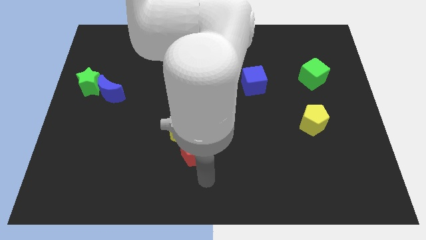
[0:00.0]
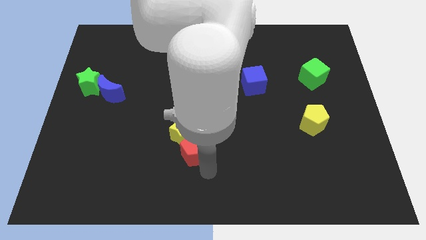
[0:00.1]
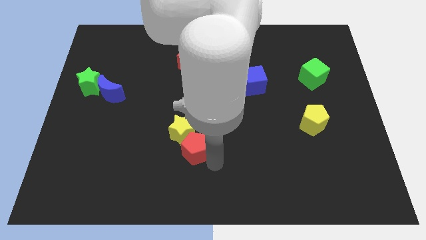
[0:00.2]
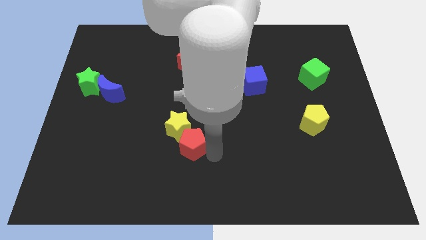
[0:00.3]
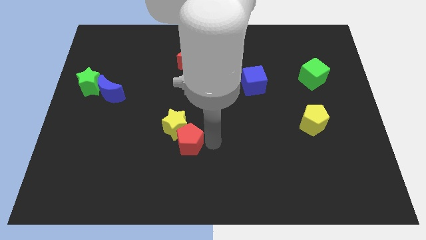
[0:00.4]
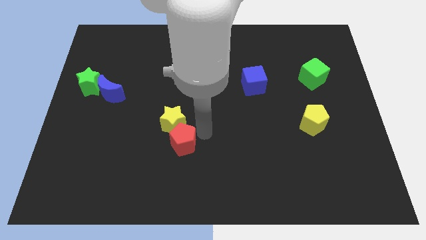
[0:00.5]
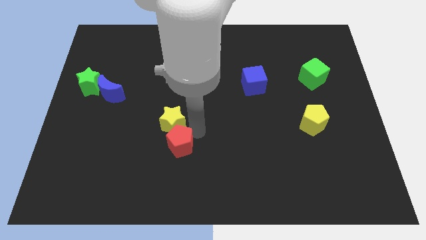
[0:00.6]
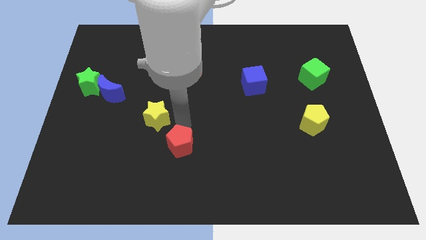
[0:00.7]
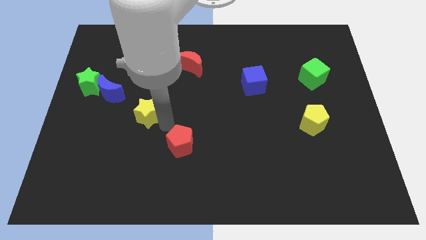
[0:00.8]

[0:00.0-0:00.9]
move the red pentagon away from the yellow star

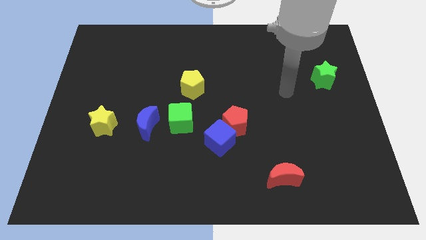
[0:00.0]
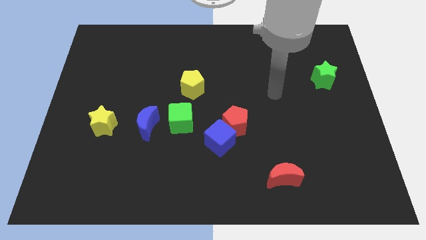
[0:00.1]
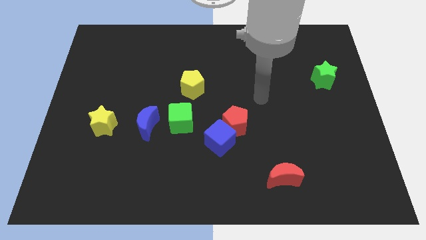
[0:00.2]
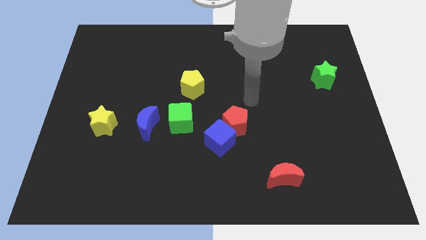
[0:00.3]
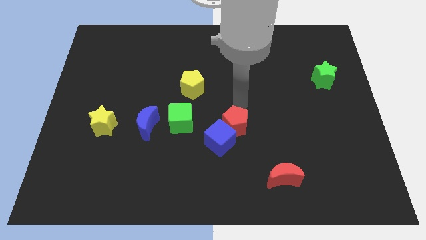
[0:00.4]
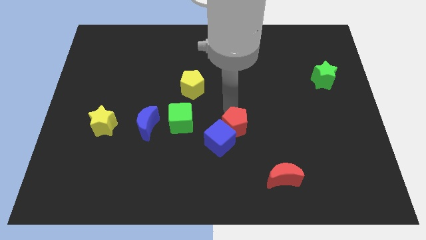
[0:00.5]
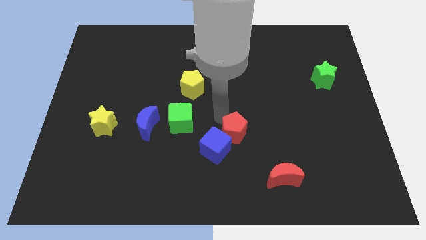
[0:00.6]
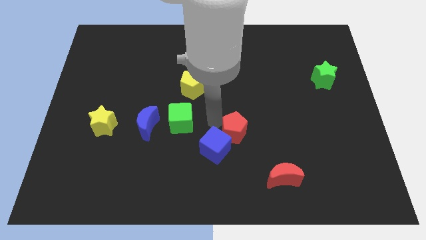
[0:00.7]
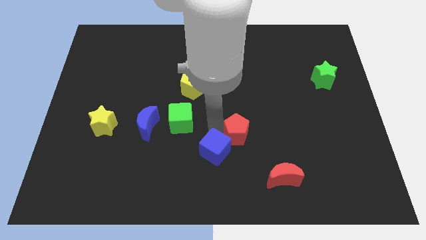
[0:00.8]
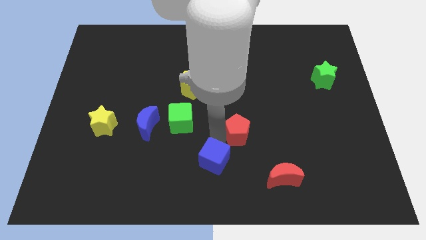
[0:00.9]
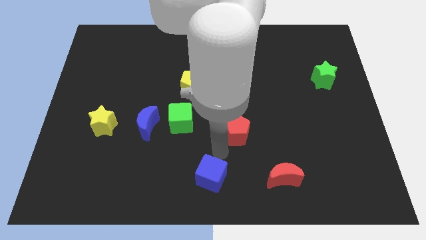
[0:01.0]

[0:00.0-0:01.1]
pull the red pentagon apart from the blue cube

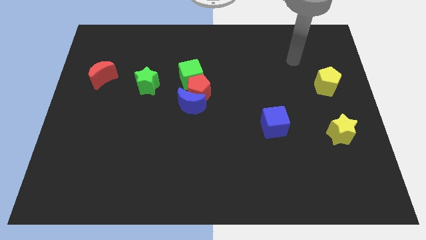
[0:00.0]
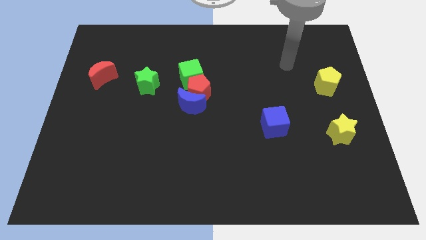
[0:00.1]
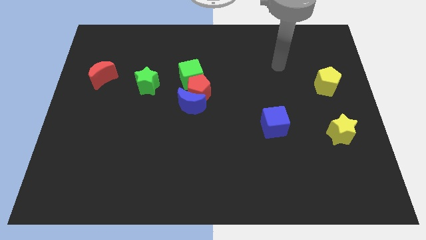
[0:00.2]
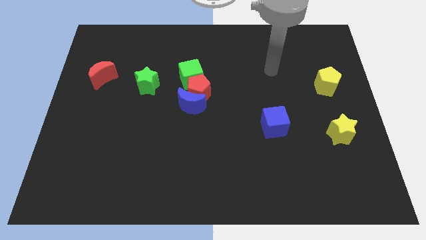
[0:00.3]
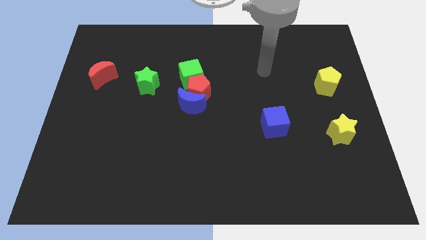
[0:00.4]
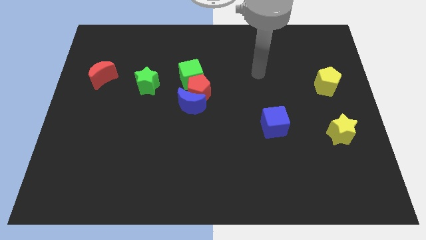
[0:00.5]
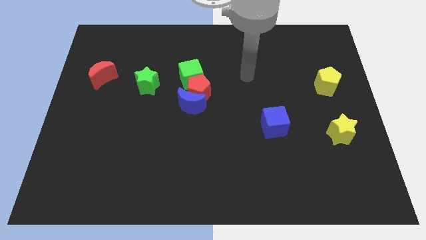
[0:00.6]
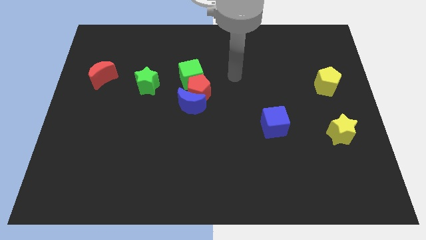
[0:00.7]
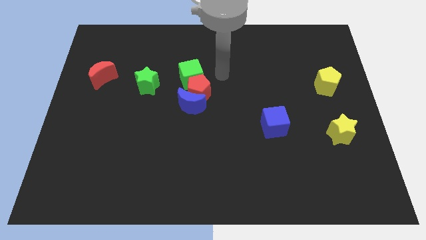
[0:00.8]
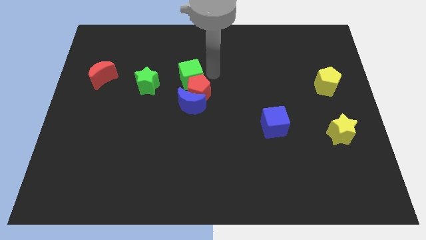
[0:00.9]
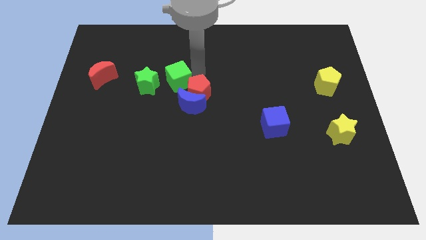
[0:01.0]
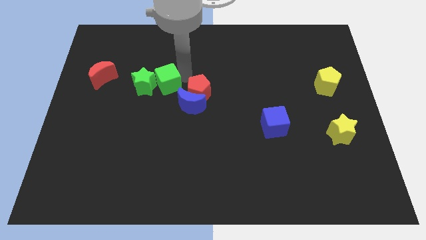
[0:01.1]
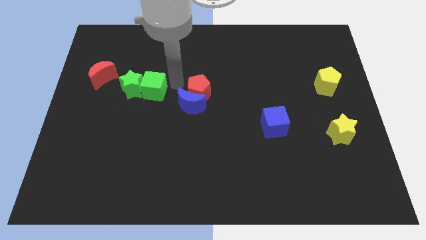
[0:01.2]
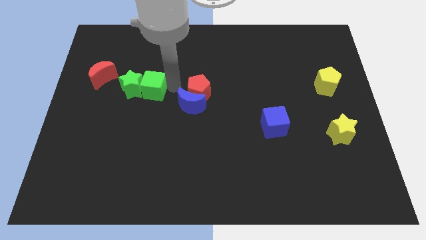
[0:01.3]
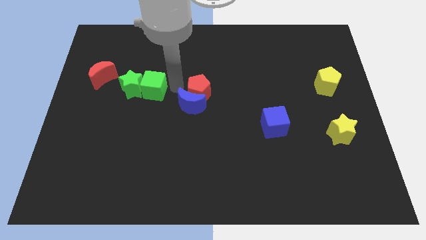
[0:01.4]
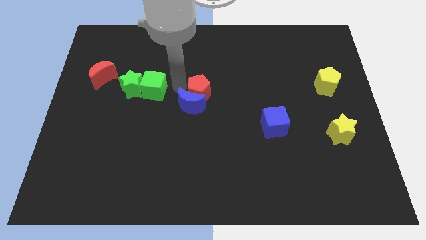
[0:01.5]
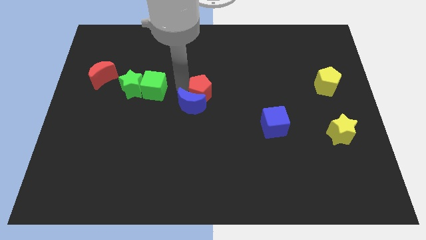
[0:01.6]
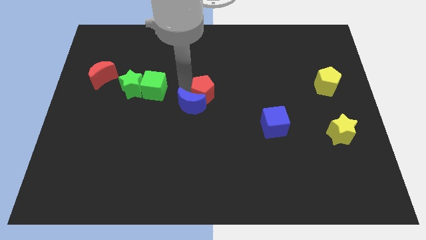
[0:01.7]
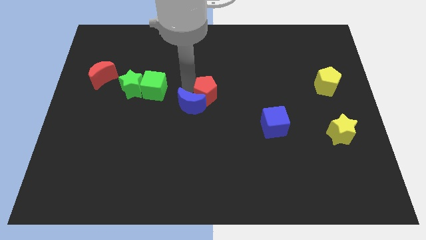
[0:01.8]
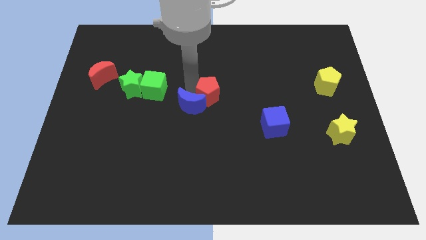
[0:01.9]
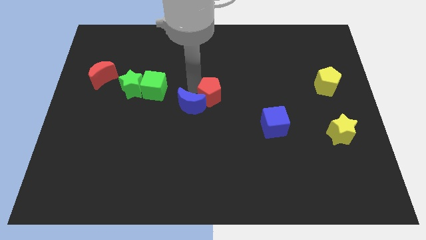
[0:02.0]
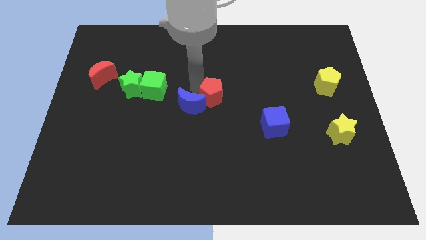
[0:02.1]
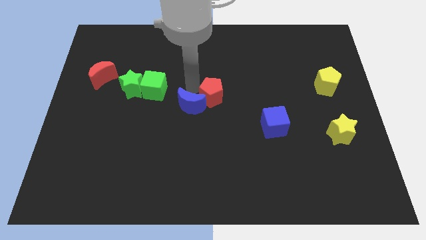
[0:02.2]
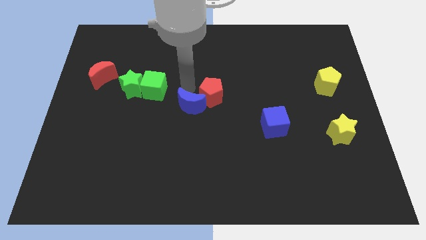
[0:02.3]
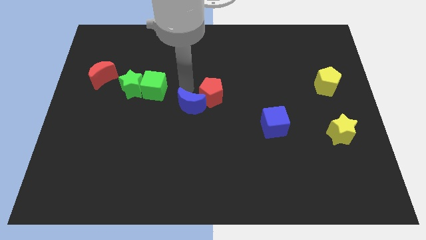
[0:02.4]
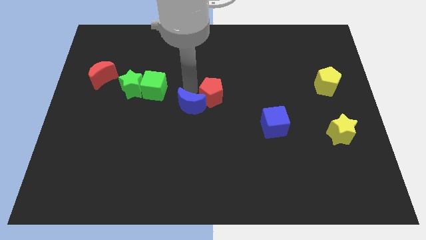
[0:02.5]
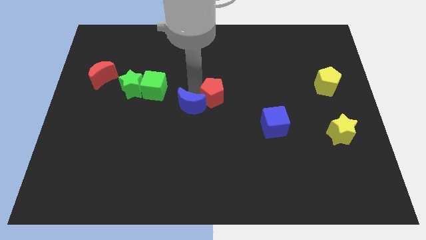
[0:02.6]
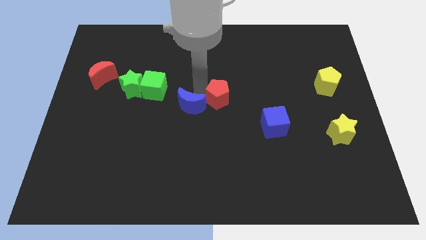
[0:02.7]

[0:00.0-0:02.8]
separate the red pentagon from the blue moon and green cube

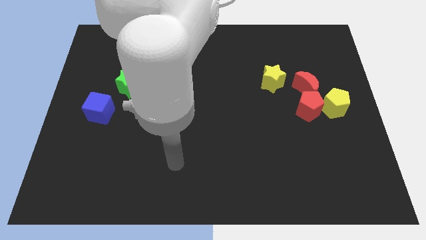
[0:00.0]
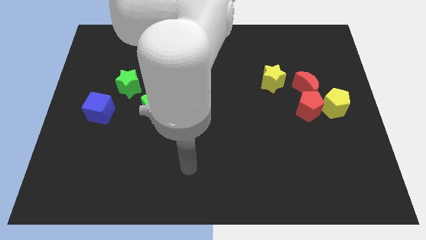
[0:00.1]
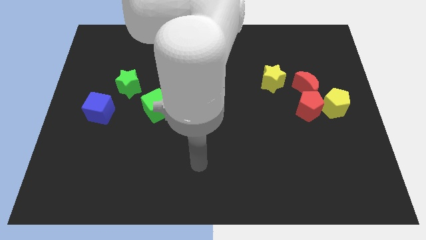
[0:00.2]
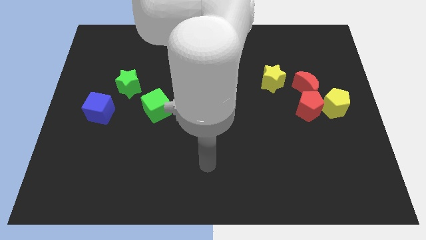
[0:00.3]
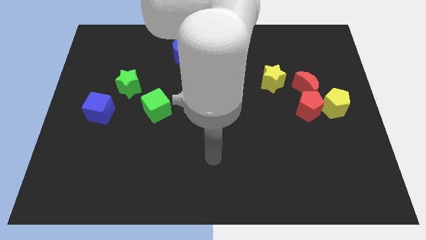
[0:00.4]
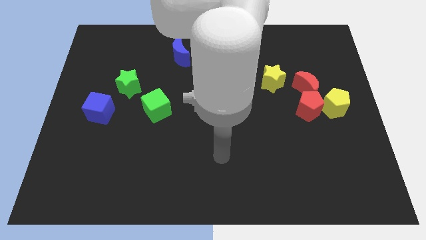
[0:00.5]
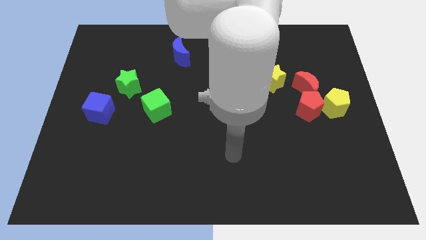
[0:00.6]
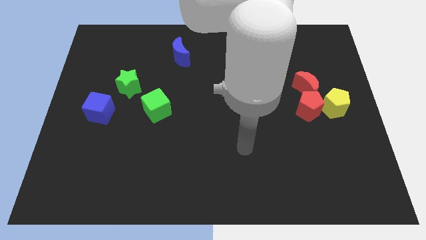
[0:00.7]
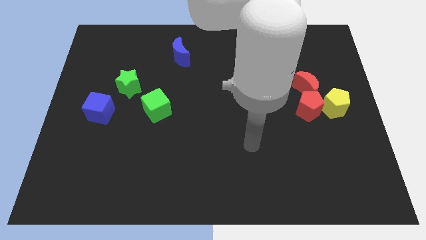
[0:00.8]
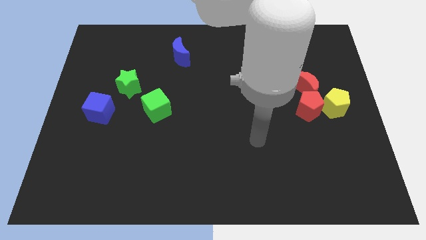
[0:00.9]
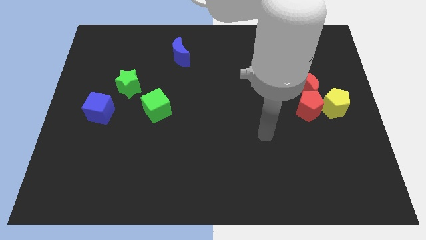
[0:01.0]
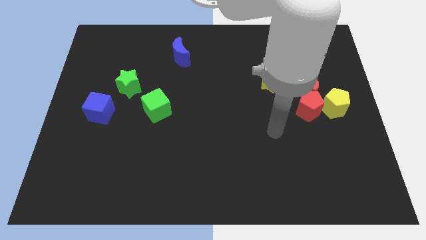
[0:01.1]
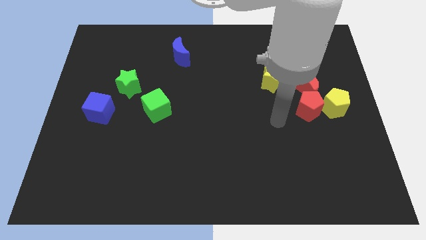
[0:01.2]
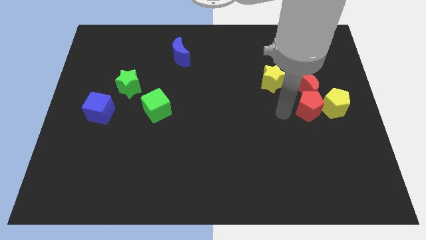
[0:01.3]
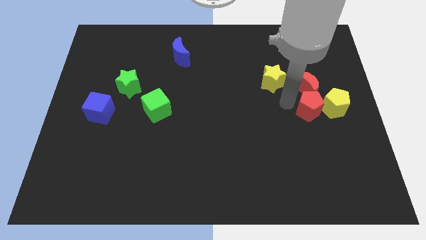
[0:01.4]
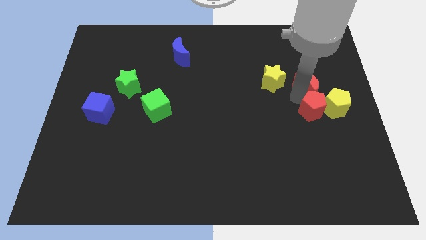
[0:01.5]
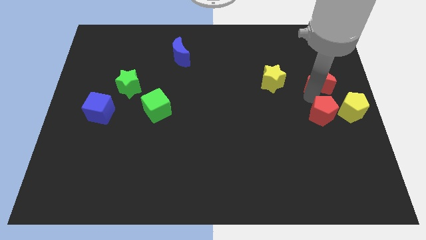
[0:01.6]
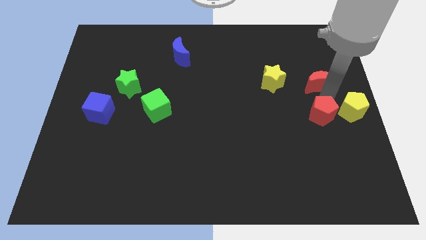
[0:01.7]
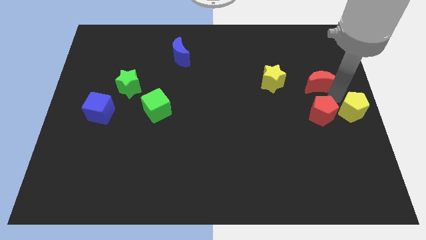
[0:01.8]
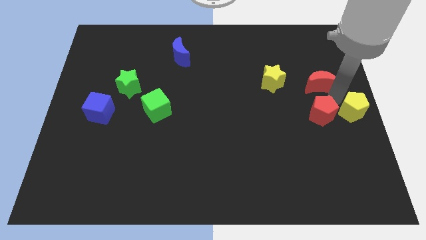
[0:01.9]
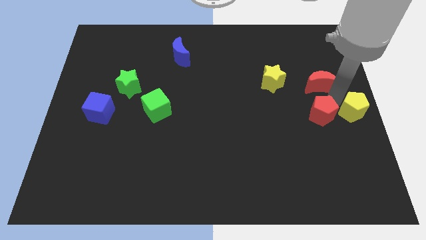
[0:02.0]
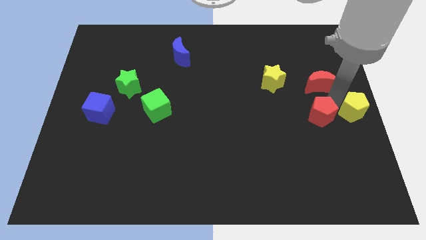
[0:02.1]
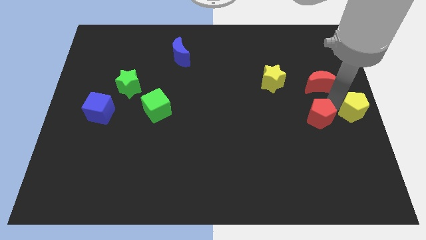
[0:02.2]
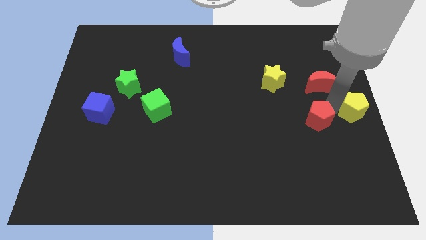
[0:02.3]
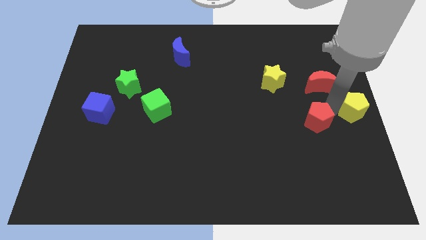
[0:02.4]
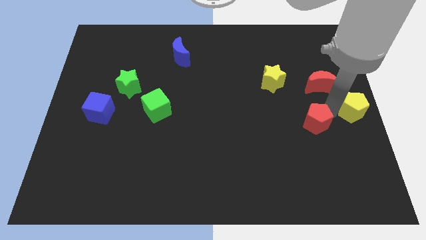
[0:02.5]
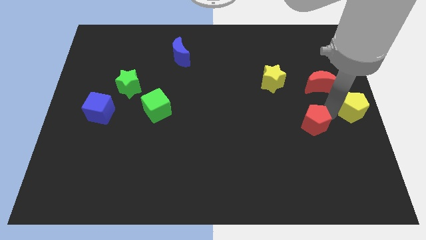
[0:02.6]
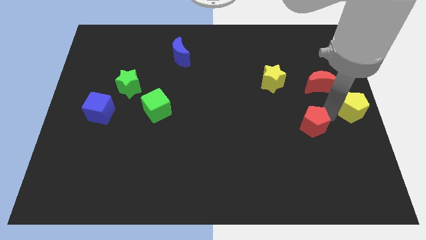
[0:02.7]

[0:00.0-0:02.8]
pull the red pentagon apart from the red moon and yellow pentagon

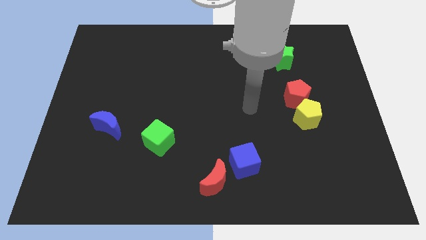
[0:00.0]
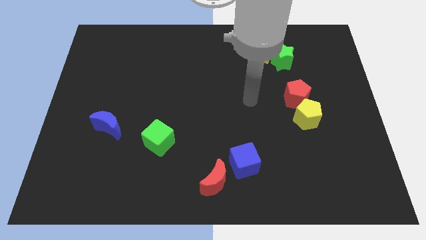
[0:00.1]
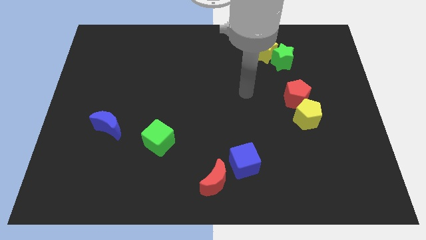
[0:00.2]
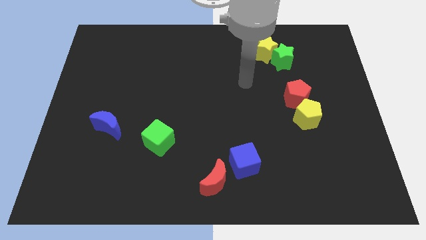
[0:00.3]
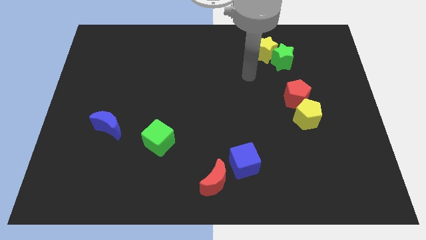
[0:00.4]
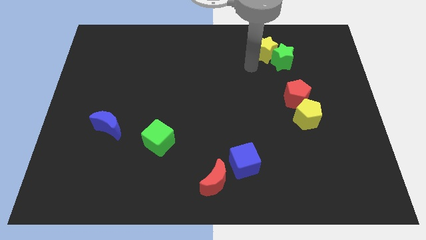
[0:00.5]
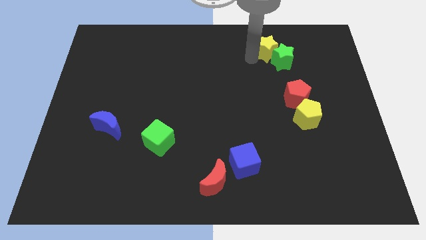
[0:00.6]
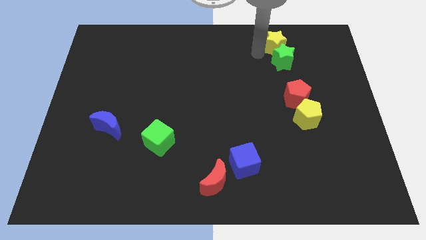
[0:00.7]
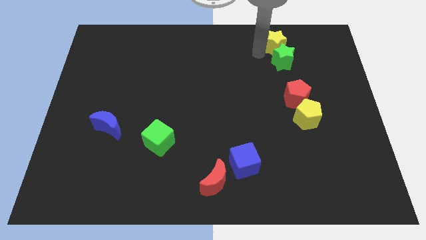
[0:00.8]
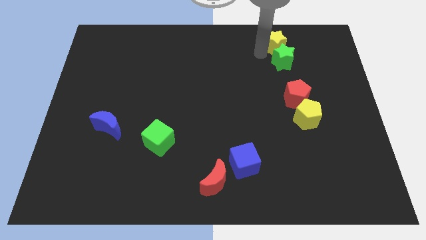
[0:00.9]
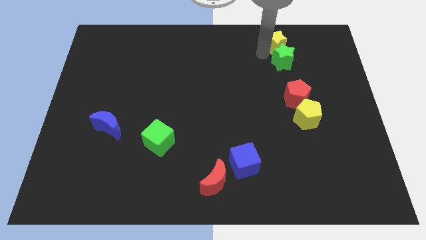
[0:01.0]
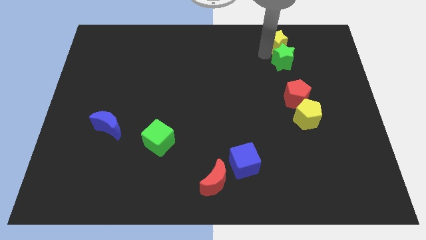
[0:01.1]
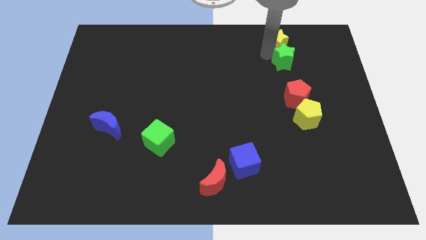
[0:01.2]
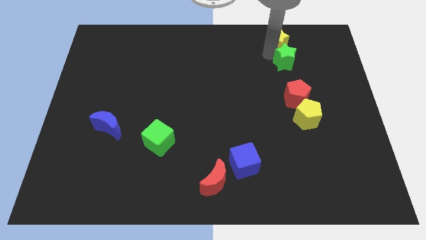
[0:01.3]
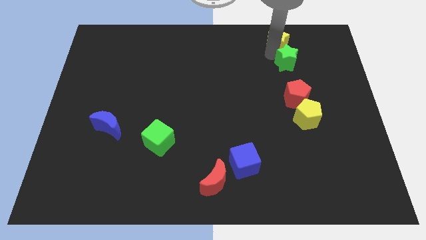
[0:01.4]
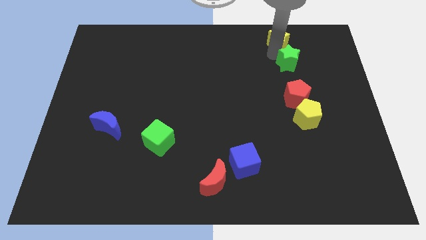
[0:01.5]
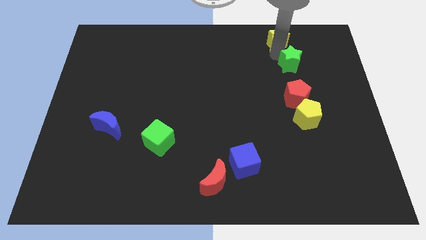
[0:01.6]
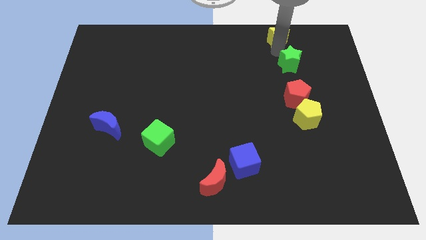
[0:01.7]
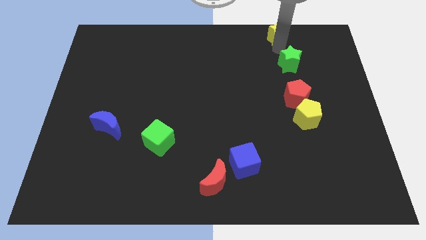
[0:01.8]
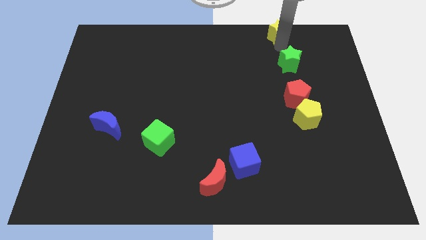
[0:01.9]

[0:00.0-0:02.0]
separate the green star from the yellow star
